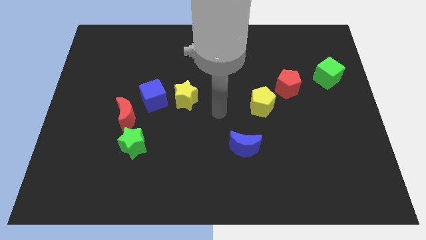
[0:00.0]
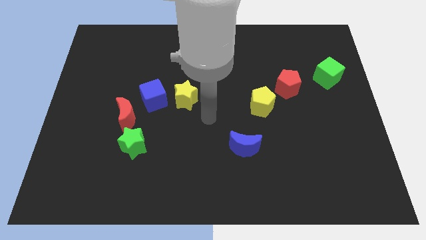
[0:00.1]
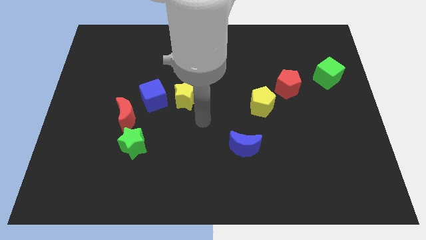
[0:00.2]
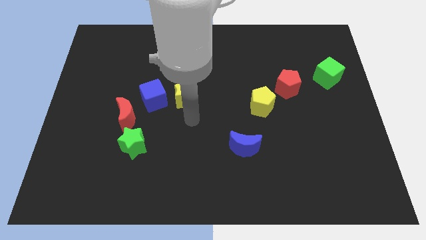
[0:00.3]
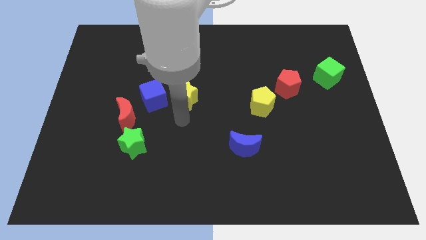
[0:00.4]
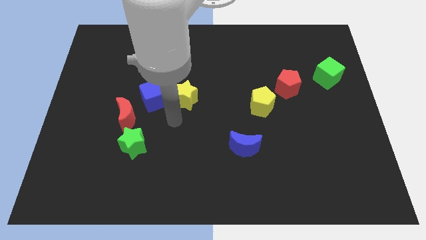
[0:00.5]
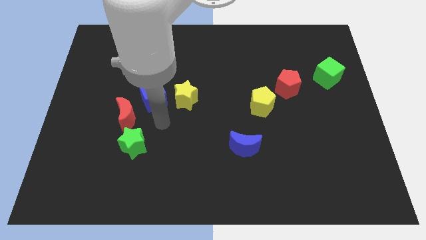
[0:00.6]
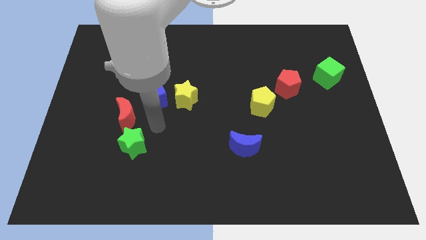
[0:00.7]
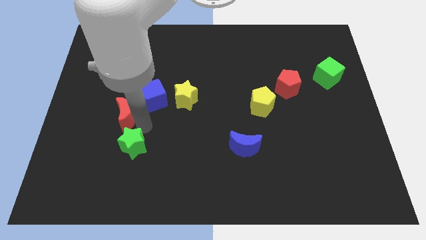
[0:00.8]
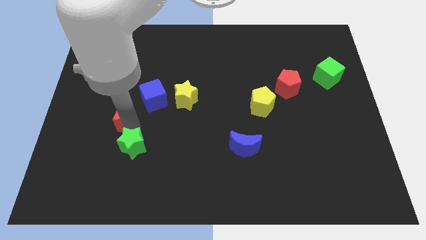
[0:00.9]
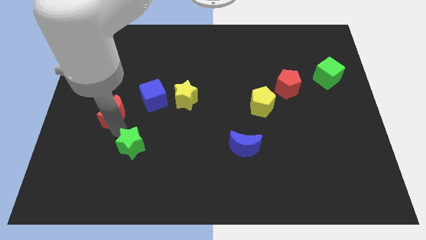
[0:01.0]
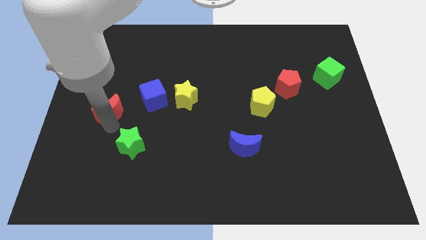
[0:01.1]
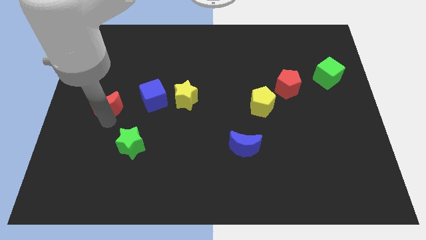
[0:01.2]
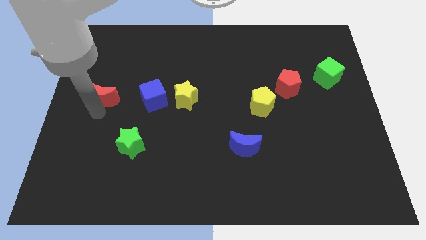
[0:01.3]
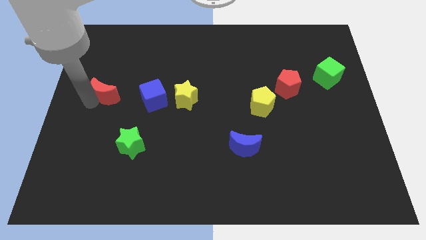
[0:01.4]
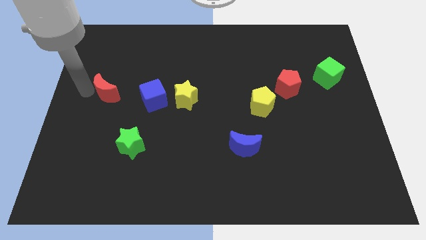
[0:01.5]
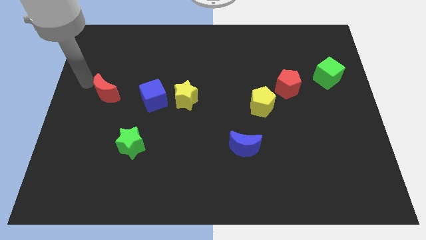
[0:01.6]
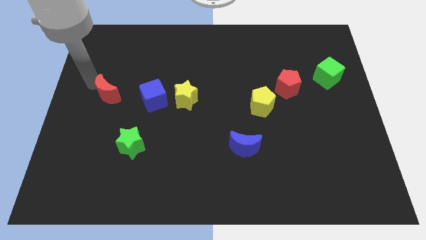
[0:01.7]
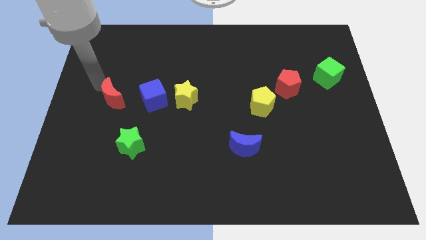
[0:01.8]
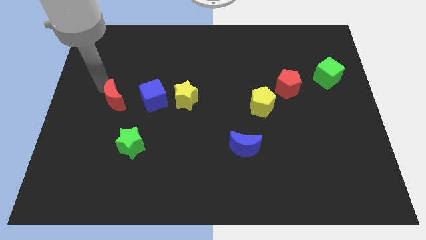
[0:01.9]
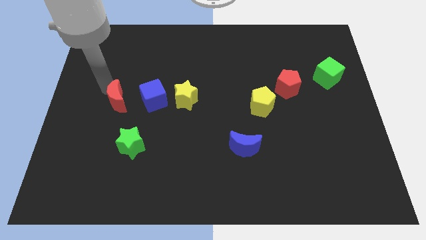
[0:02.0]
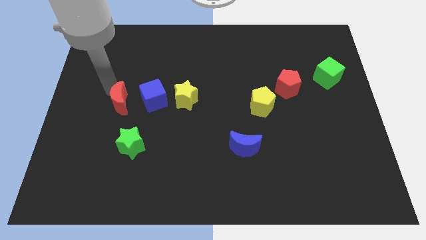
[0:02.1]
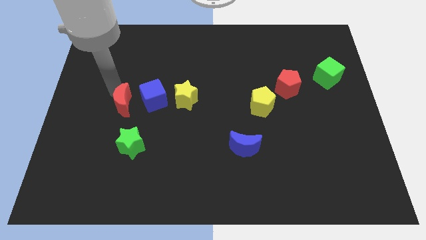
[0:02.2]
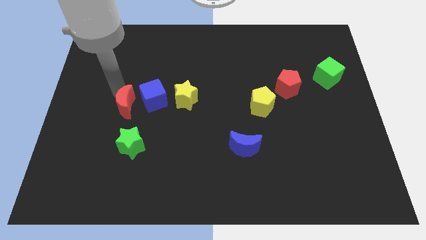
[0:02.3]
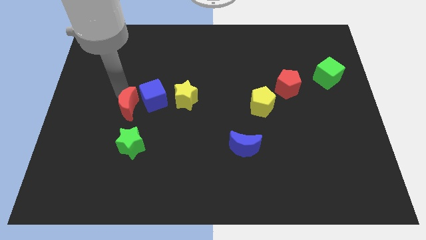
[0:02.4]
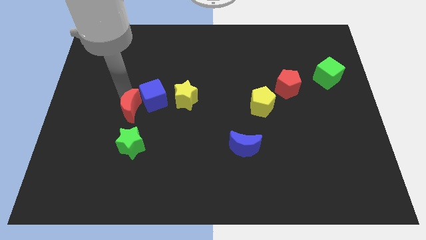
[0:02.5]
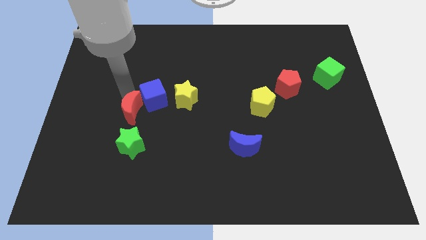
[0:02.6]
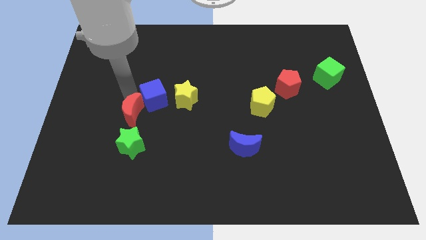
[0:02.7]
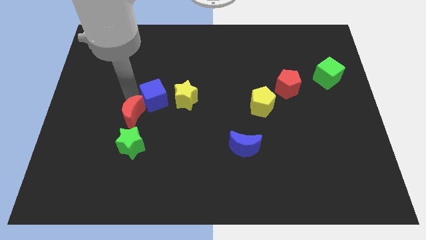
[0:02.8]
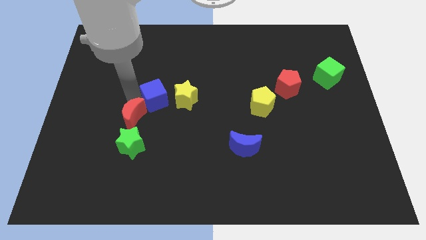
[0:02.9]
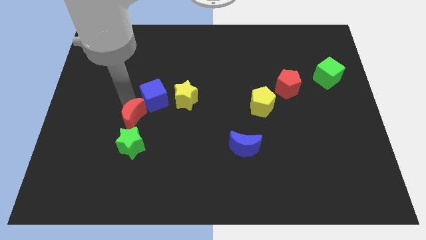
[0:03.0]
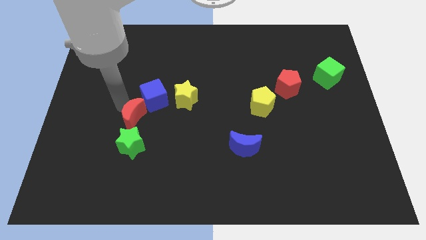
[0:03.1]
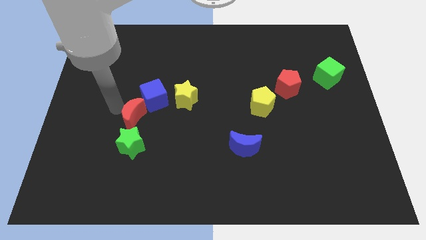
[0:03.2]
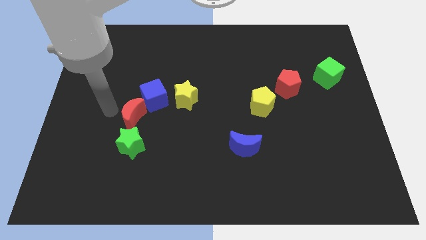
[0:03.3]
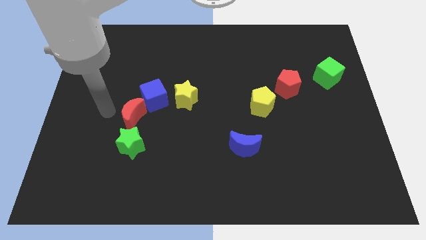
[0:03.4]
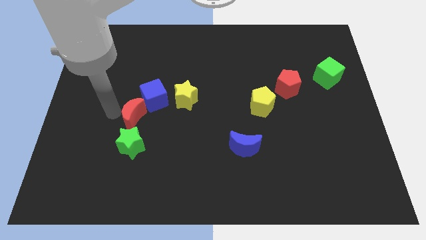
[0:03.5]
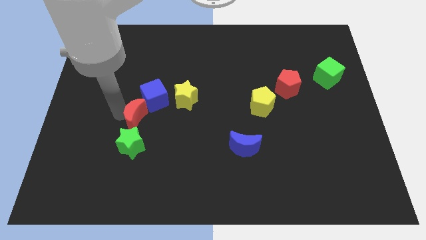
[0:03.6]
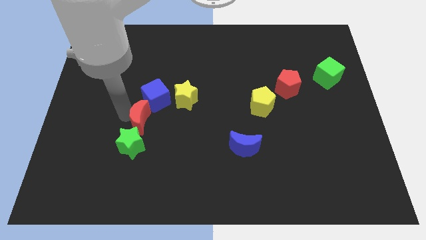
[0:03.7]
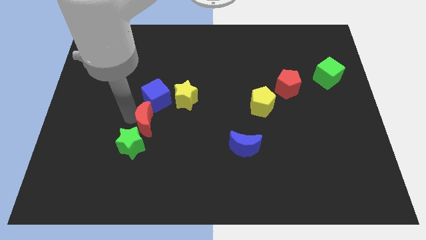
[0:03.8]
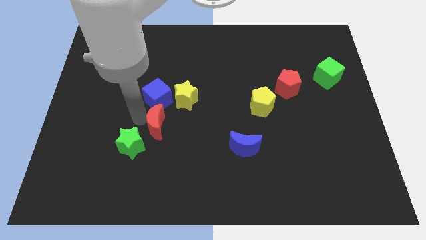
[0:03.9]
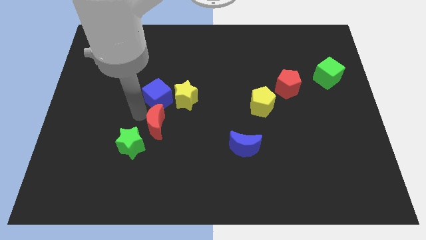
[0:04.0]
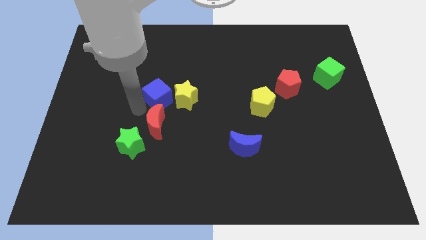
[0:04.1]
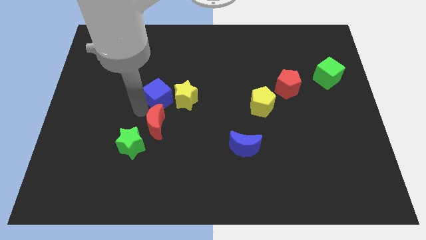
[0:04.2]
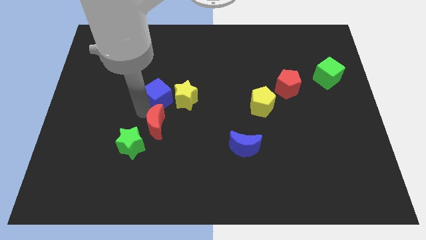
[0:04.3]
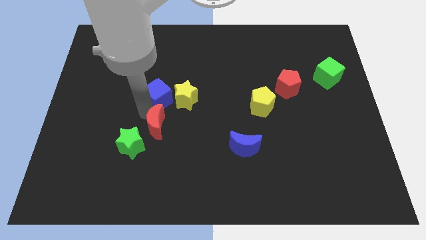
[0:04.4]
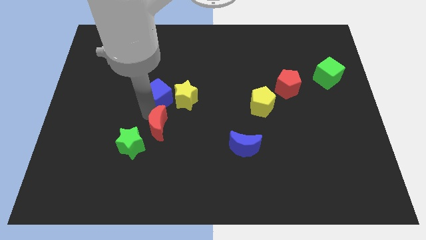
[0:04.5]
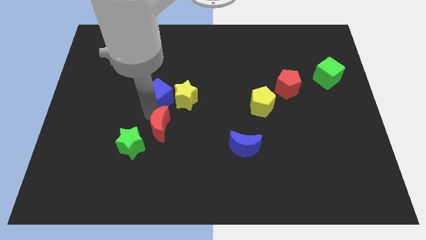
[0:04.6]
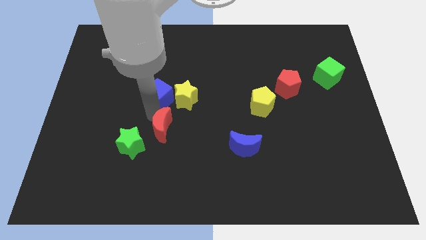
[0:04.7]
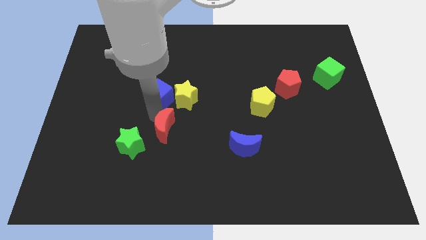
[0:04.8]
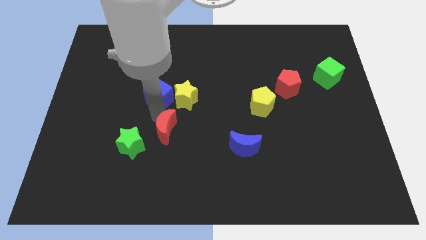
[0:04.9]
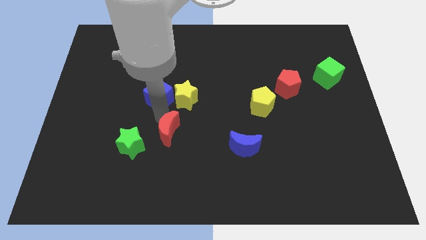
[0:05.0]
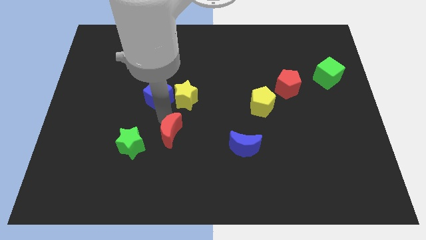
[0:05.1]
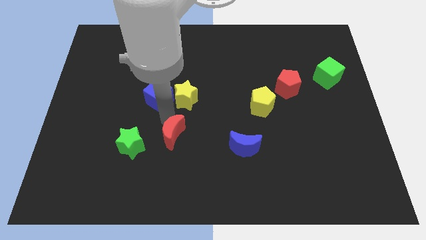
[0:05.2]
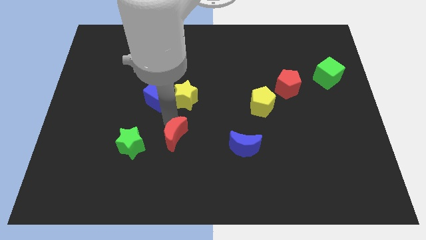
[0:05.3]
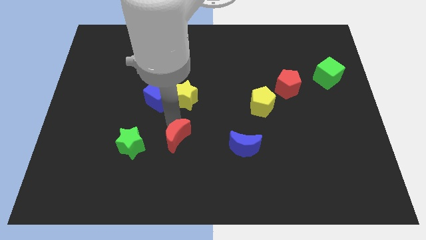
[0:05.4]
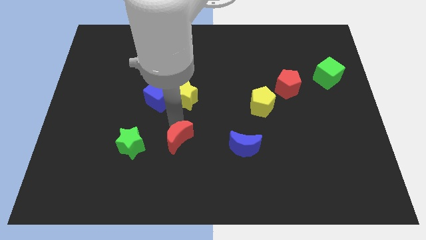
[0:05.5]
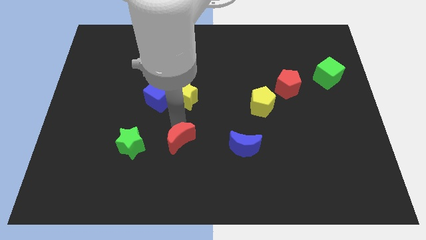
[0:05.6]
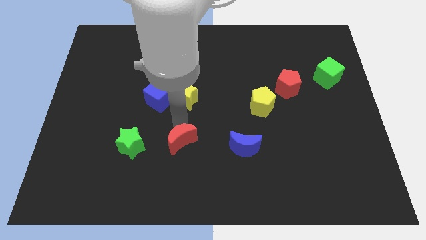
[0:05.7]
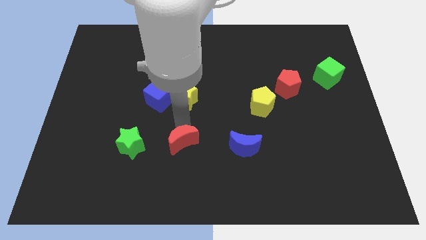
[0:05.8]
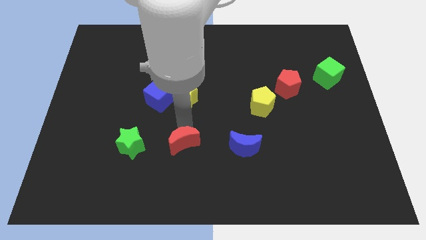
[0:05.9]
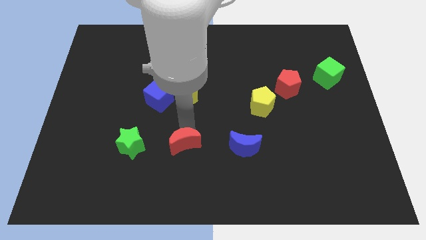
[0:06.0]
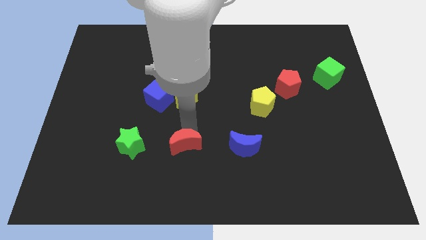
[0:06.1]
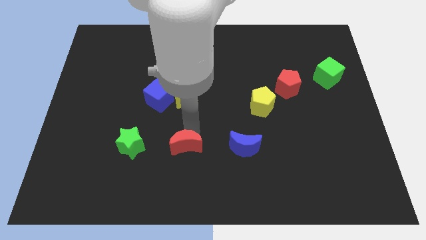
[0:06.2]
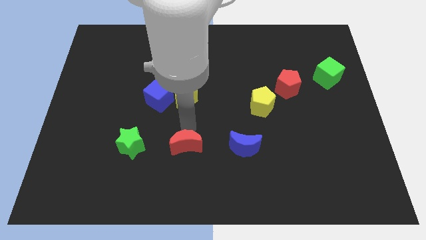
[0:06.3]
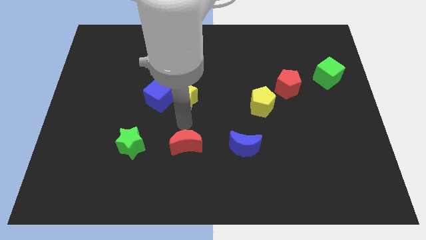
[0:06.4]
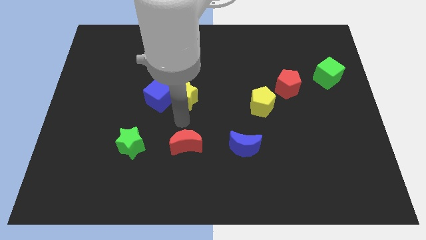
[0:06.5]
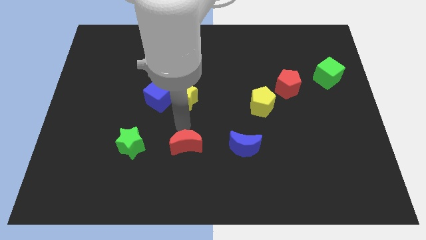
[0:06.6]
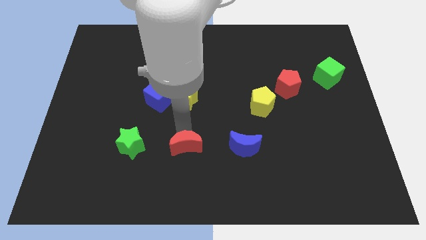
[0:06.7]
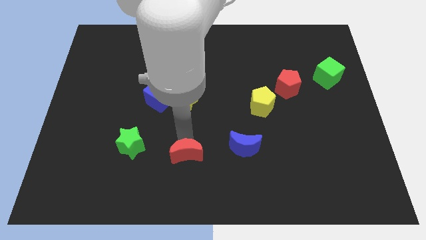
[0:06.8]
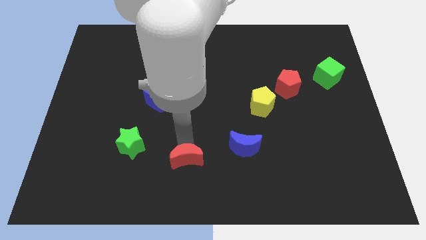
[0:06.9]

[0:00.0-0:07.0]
push the red moon to the bottom side
